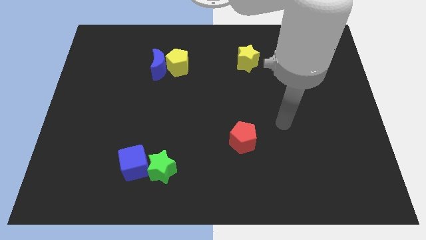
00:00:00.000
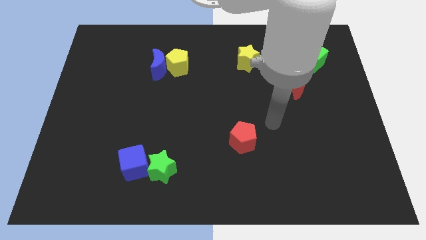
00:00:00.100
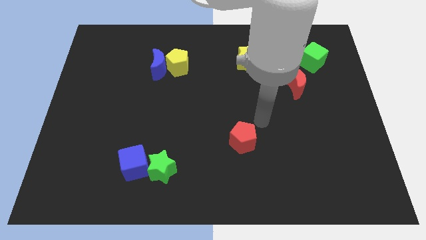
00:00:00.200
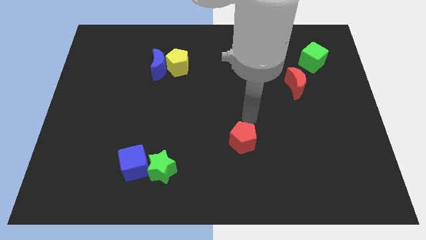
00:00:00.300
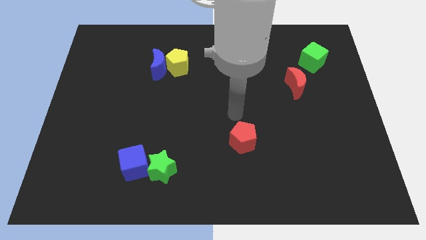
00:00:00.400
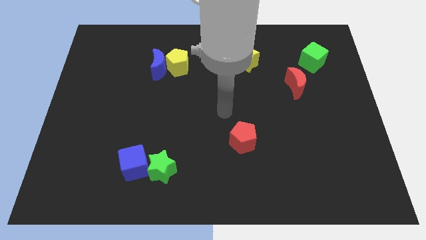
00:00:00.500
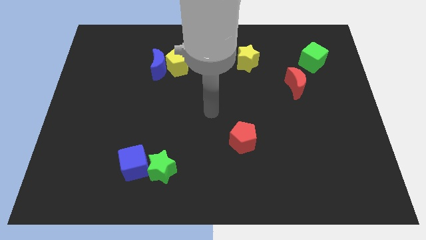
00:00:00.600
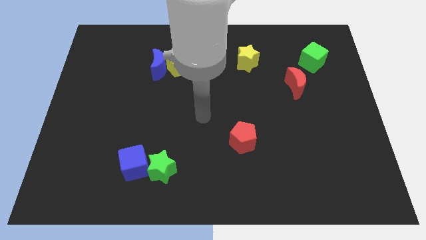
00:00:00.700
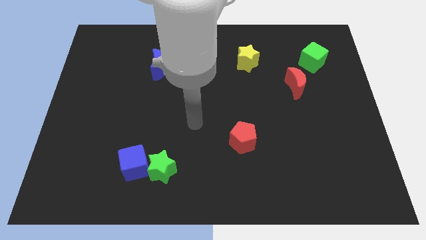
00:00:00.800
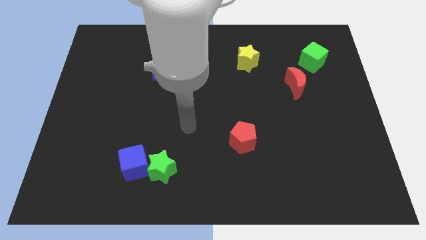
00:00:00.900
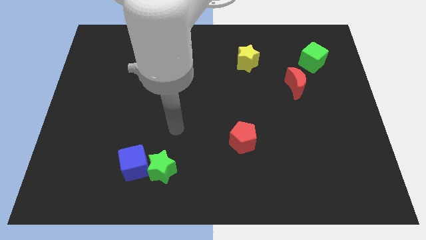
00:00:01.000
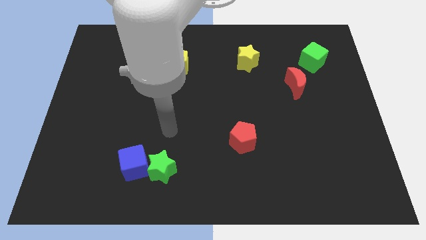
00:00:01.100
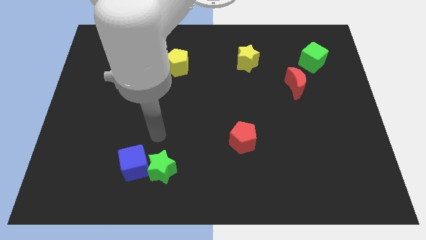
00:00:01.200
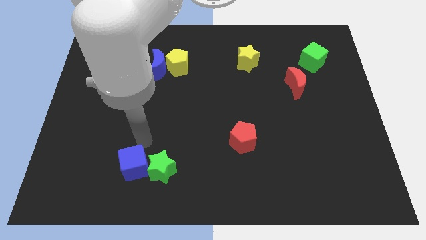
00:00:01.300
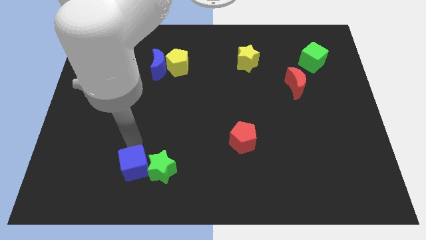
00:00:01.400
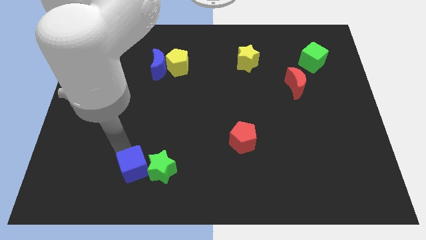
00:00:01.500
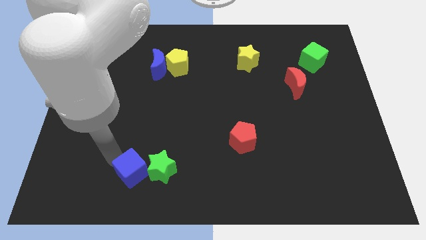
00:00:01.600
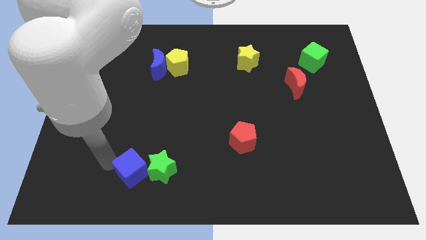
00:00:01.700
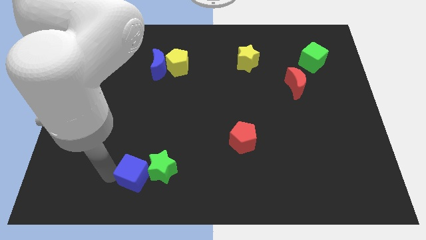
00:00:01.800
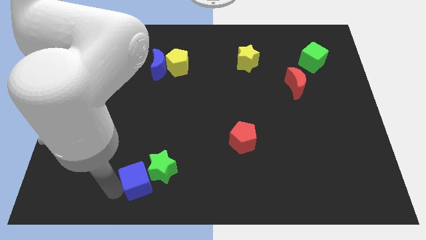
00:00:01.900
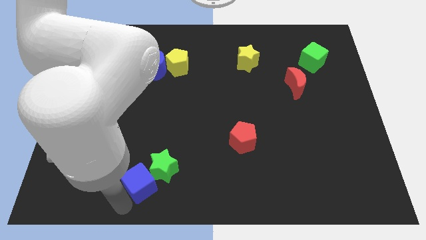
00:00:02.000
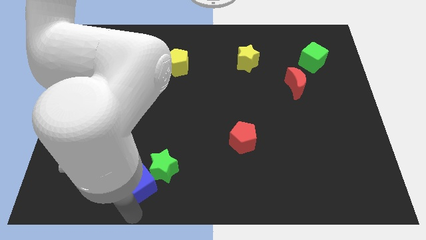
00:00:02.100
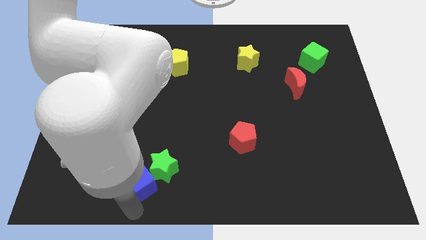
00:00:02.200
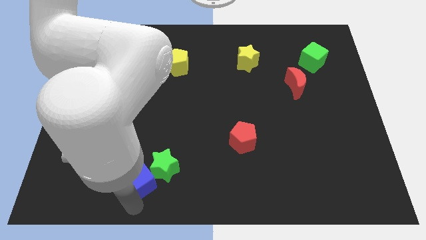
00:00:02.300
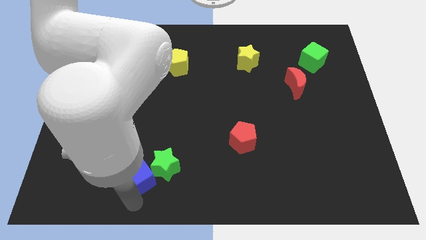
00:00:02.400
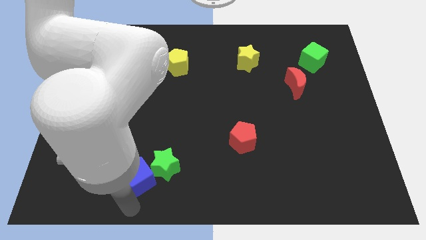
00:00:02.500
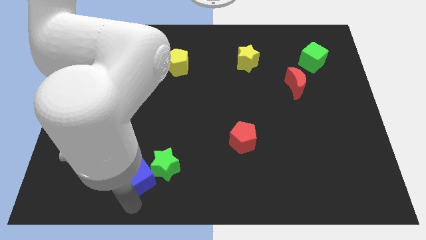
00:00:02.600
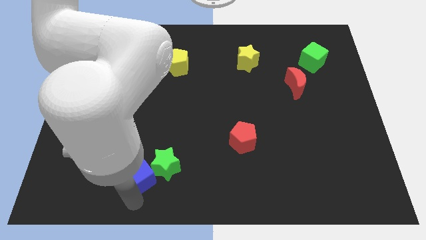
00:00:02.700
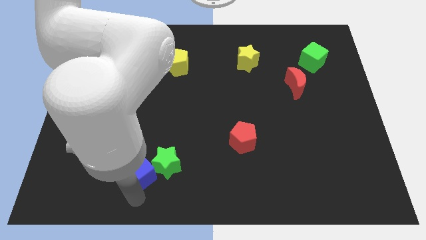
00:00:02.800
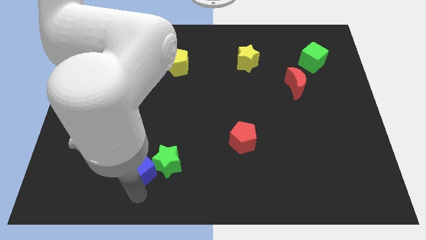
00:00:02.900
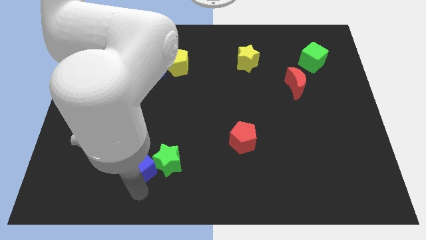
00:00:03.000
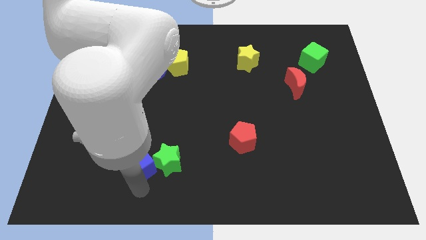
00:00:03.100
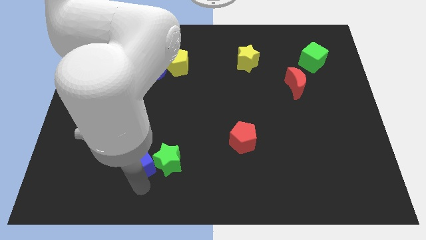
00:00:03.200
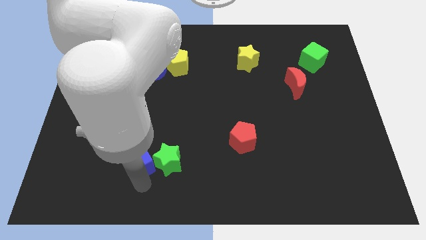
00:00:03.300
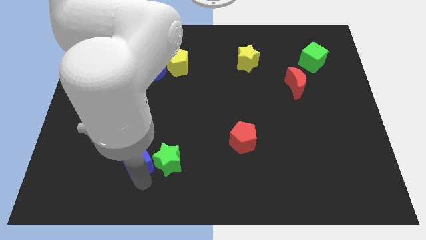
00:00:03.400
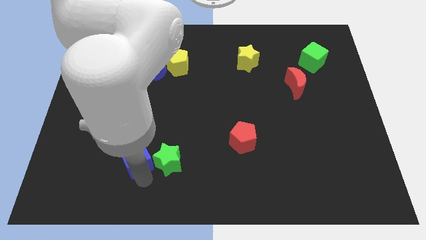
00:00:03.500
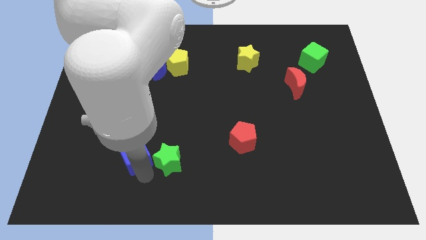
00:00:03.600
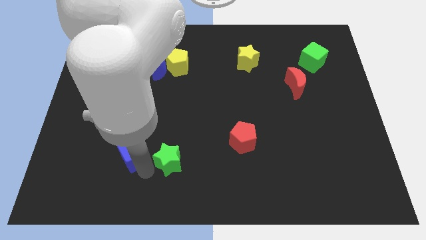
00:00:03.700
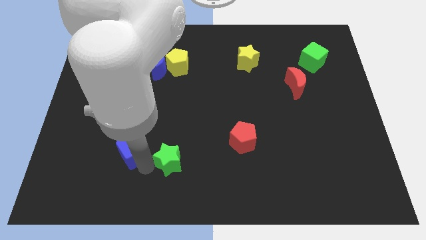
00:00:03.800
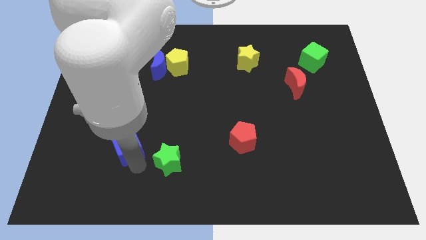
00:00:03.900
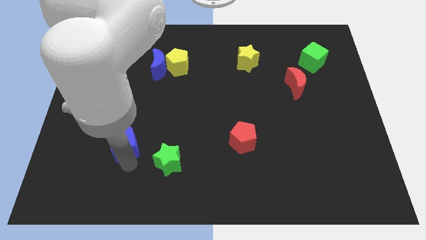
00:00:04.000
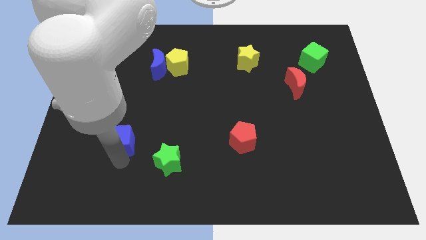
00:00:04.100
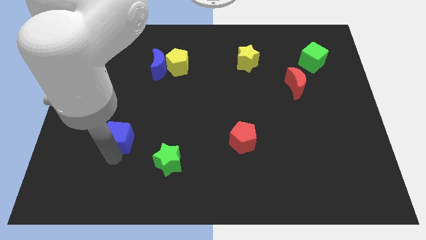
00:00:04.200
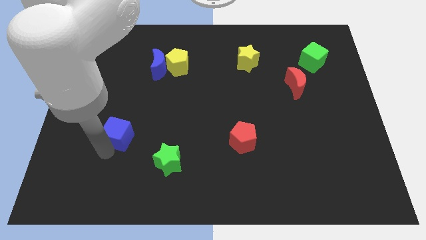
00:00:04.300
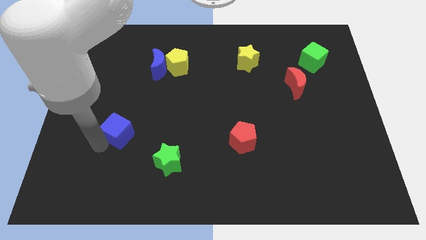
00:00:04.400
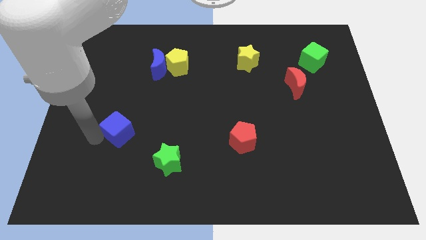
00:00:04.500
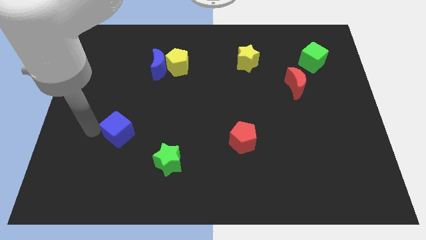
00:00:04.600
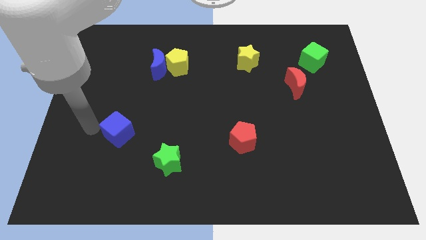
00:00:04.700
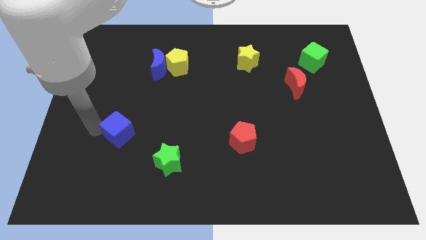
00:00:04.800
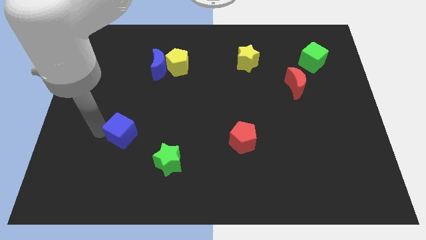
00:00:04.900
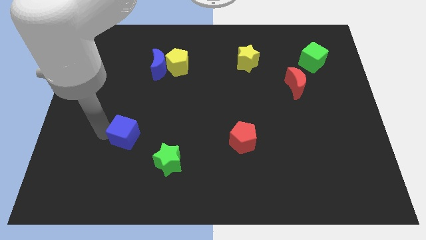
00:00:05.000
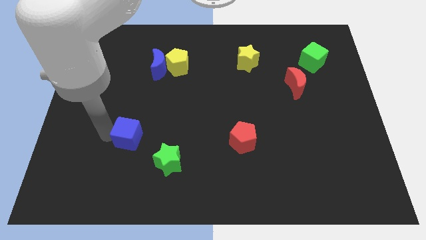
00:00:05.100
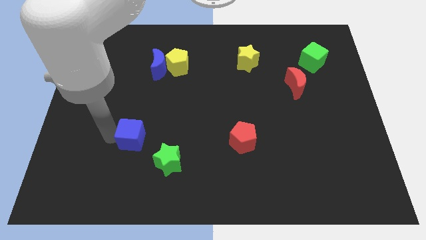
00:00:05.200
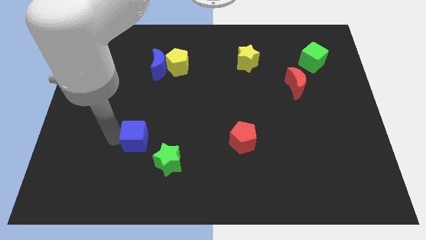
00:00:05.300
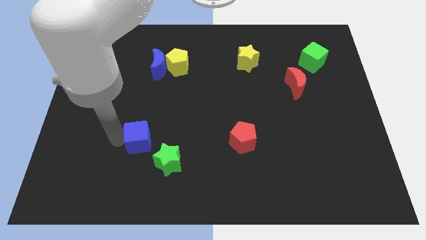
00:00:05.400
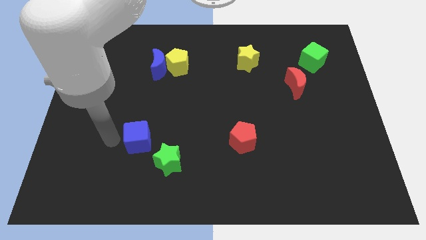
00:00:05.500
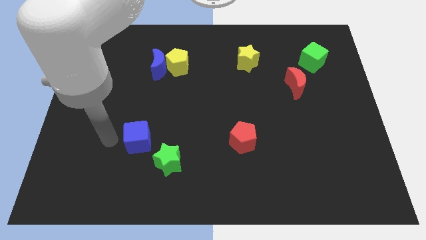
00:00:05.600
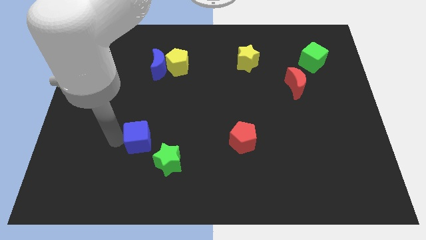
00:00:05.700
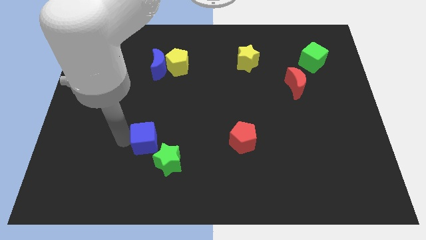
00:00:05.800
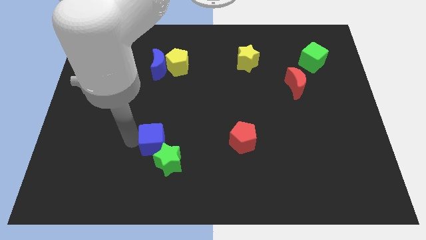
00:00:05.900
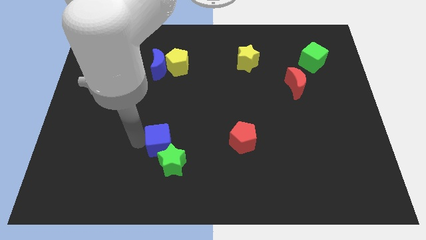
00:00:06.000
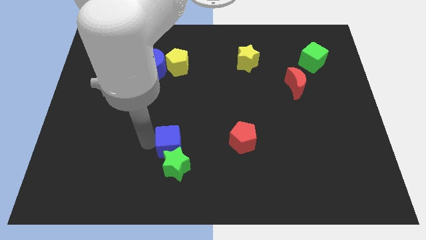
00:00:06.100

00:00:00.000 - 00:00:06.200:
move the blue cube just left of the red pentagon

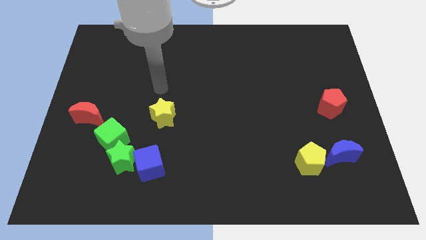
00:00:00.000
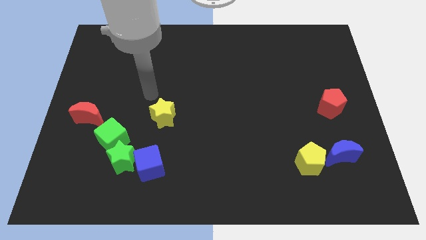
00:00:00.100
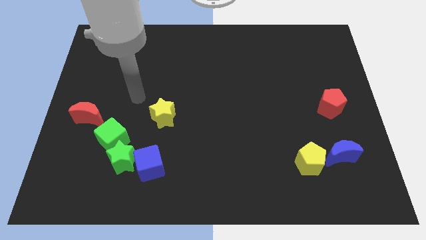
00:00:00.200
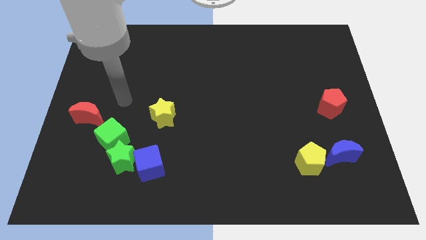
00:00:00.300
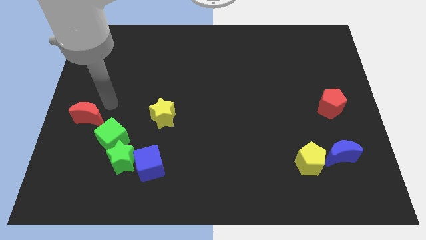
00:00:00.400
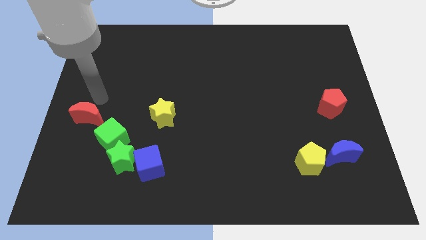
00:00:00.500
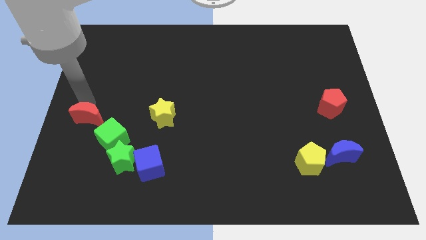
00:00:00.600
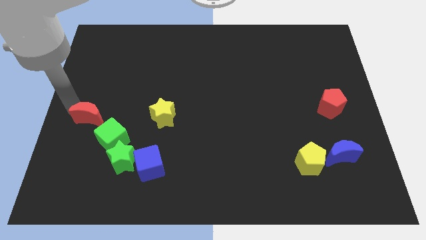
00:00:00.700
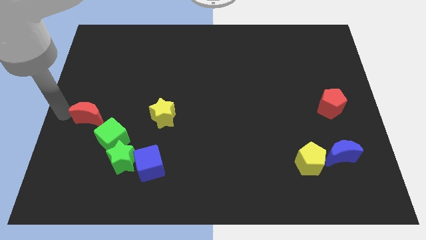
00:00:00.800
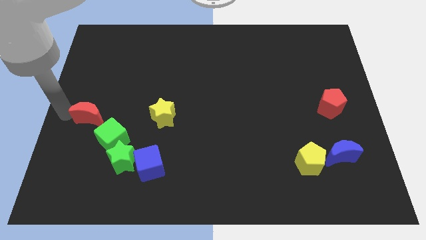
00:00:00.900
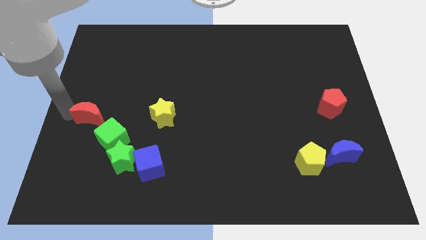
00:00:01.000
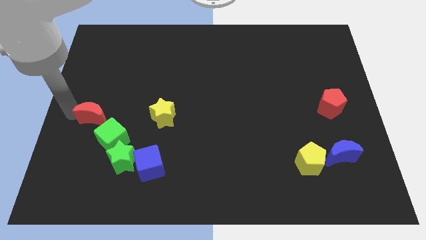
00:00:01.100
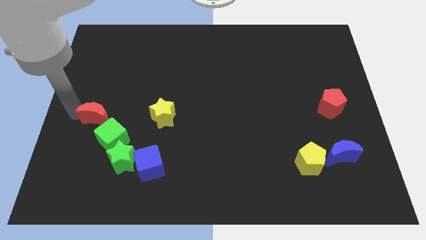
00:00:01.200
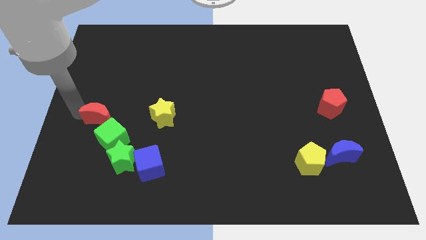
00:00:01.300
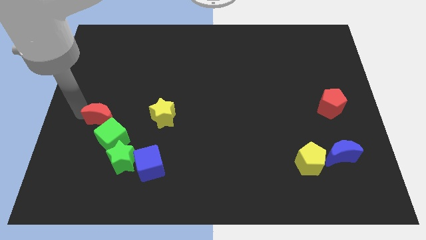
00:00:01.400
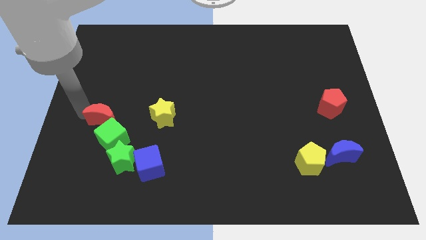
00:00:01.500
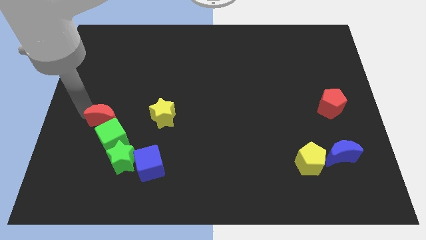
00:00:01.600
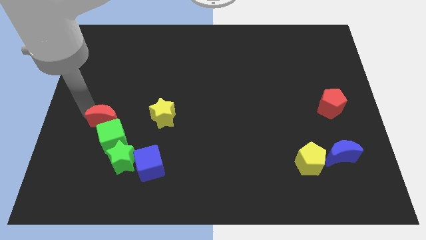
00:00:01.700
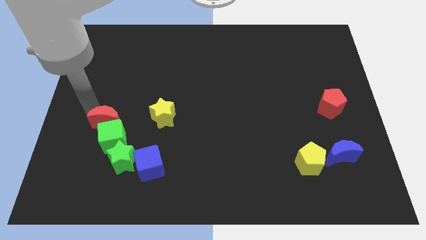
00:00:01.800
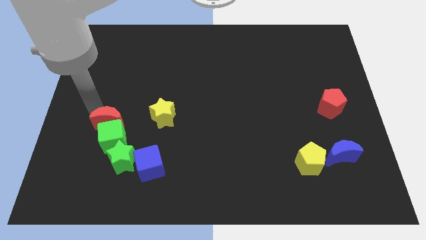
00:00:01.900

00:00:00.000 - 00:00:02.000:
put the red moon diagonally up and to the right of the green cube
